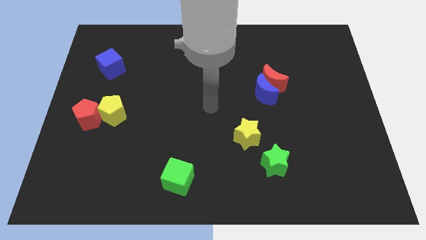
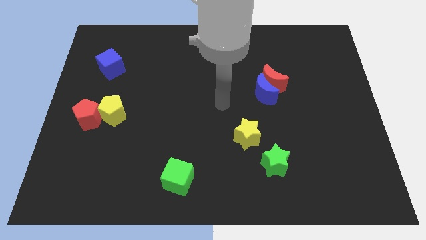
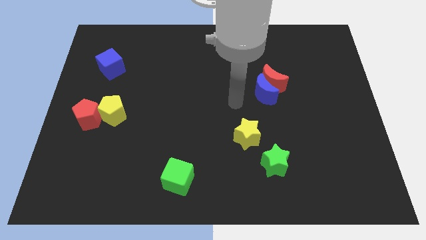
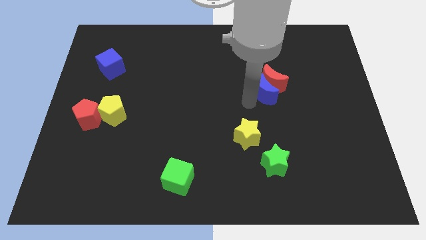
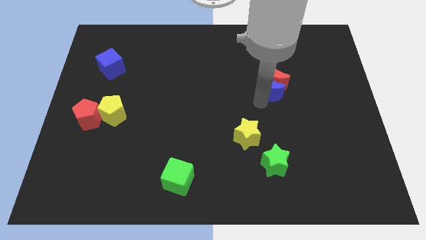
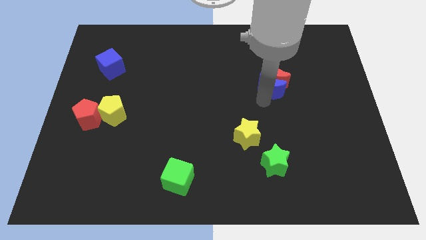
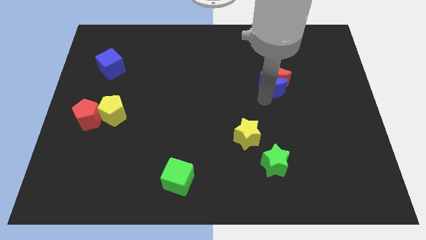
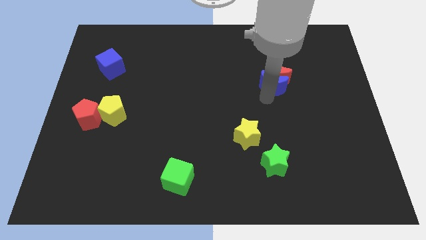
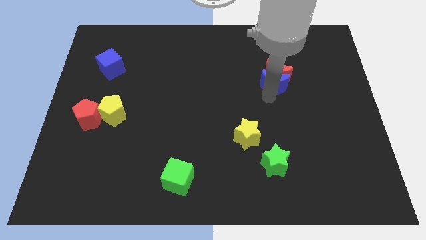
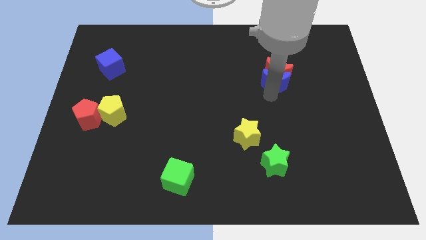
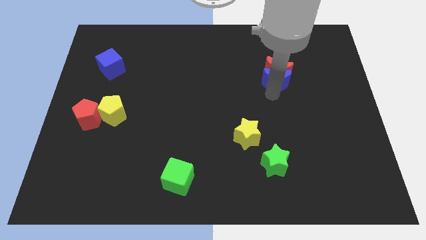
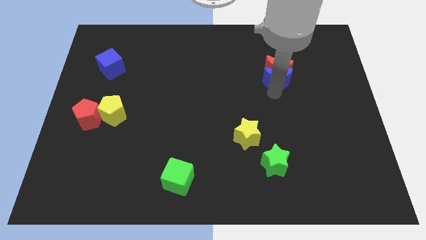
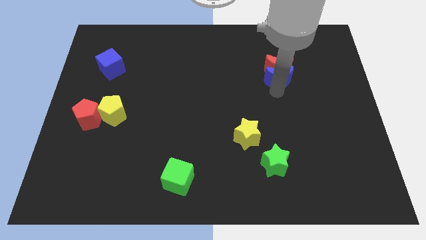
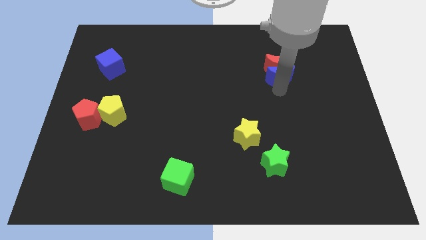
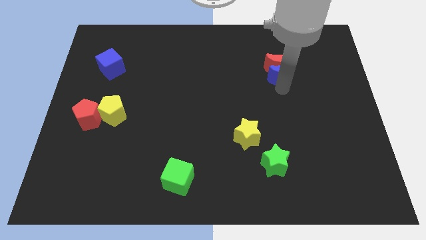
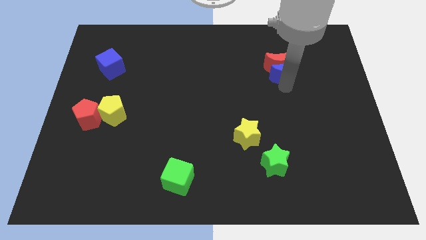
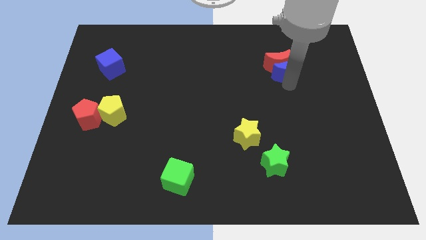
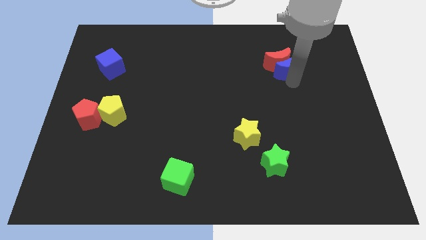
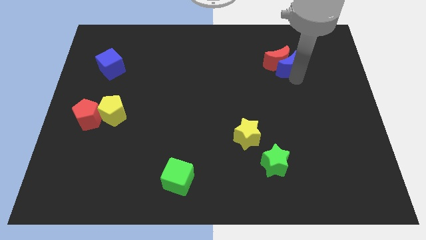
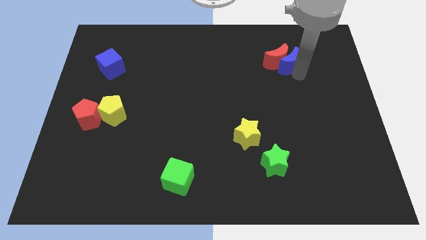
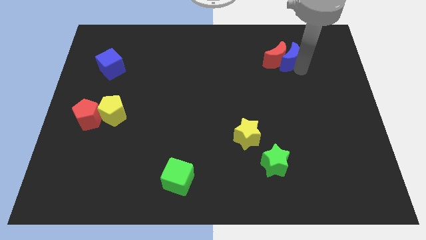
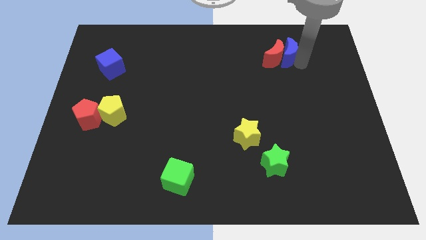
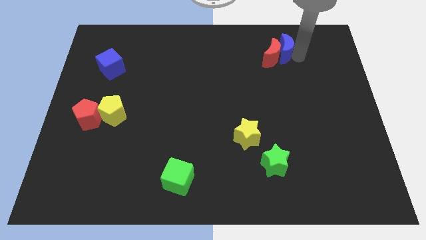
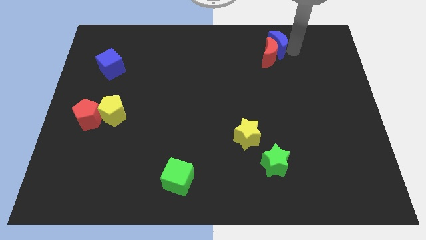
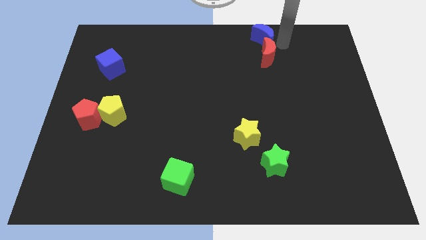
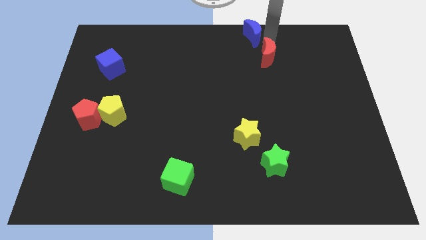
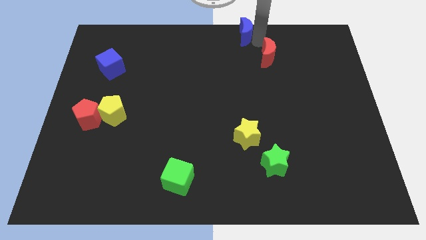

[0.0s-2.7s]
pull the red moon apart from the blue moon

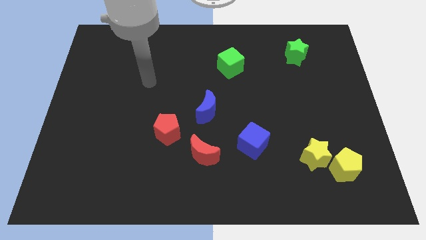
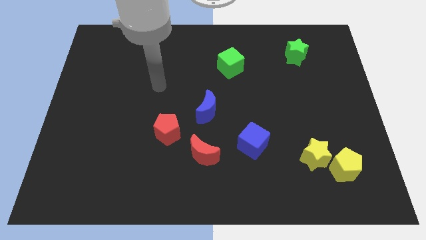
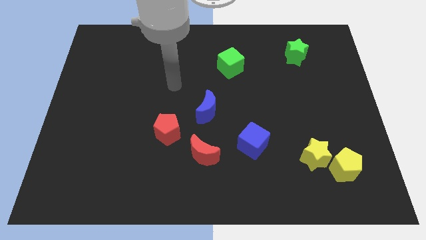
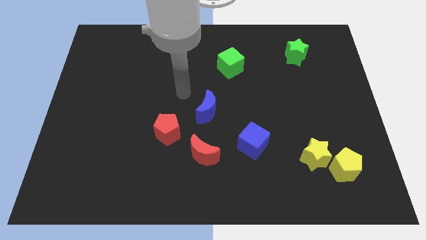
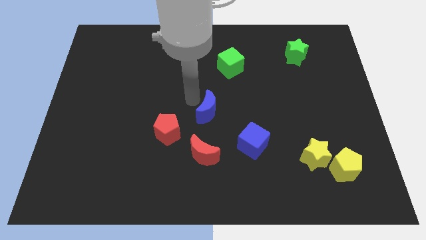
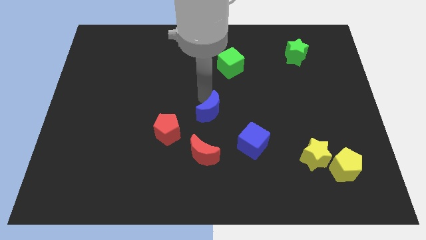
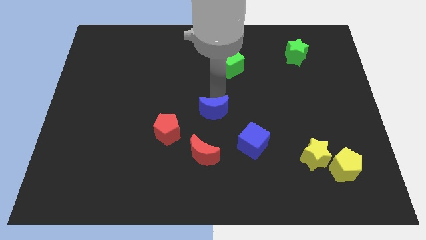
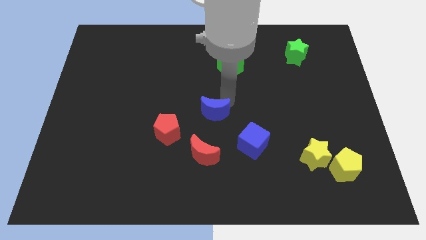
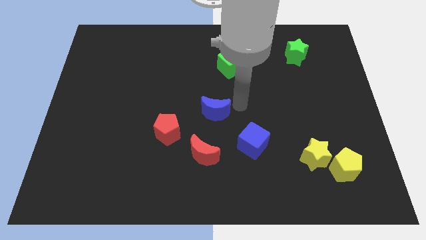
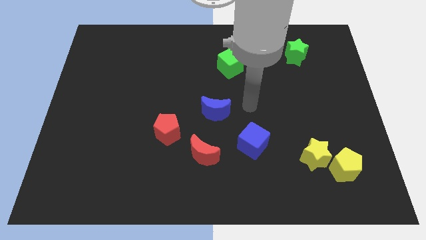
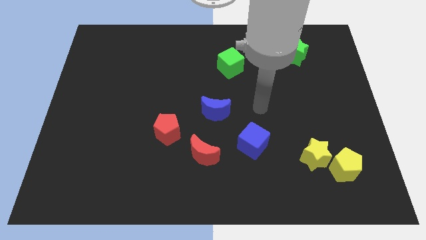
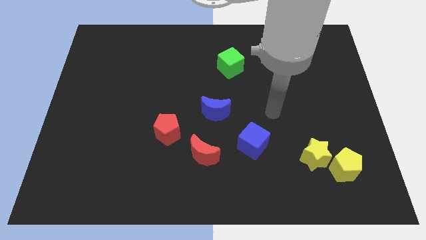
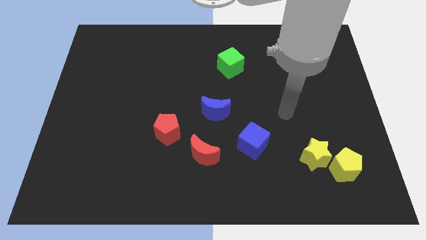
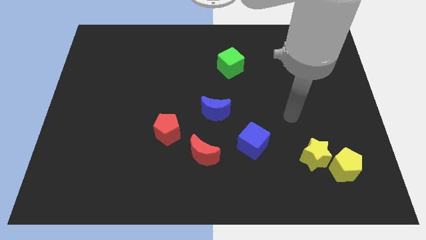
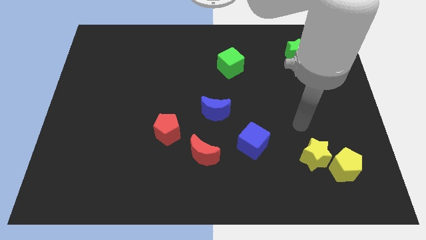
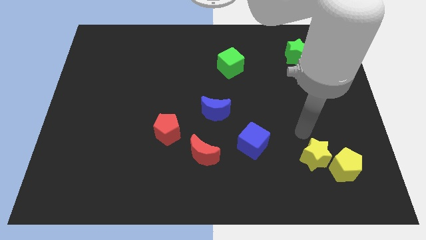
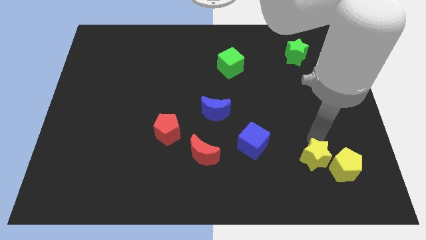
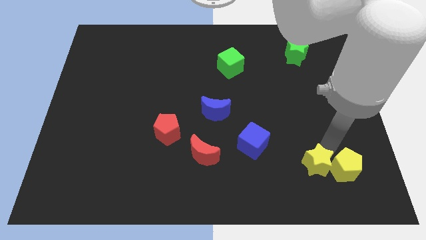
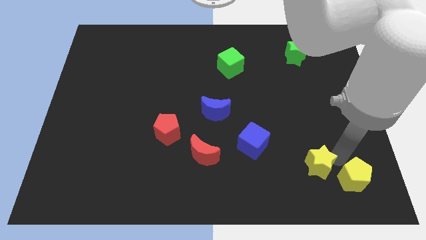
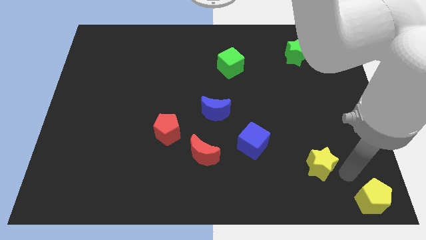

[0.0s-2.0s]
pull the yellow star apart from the yellow pentagon

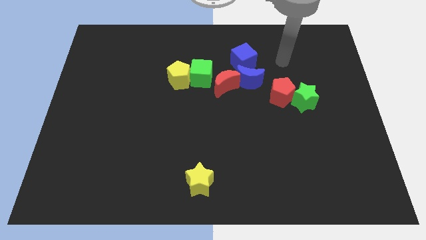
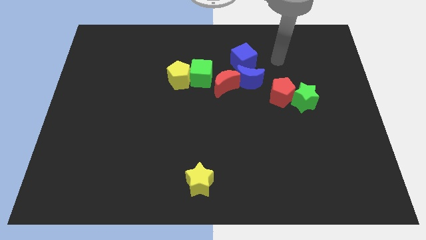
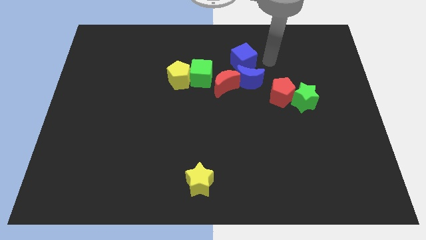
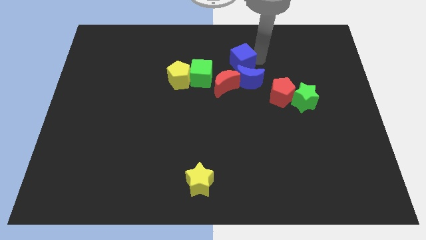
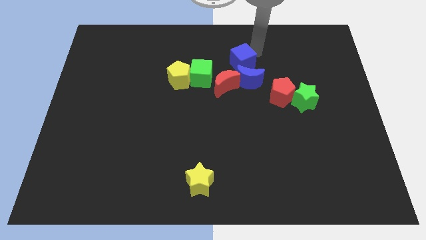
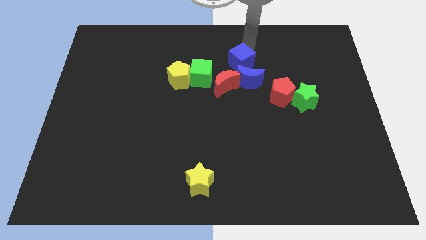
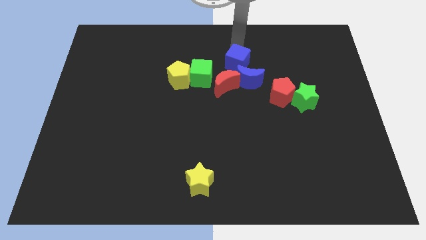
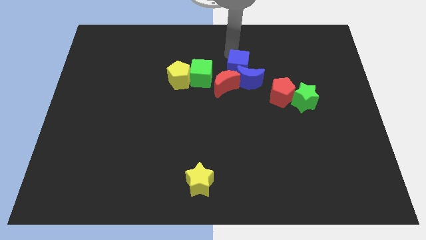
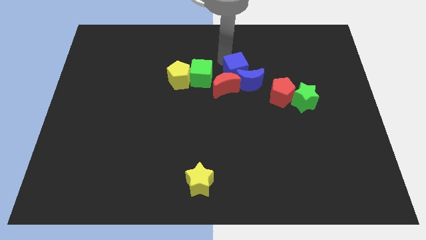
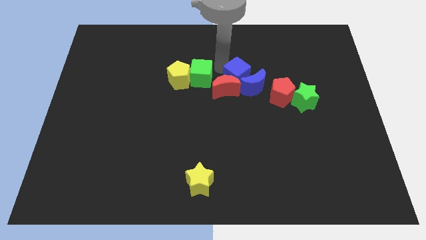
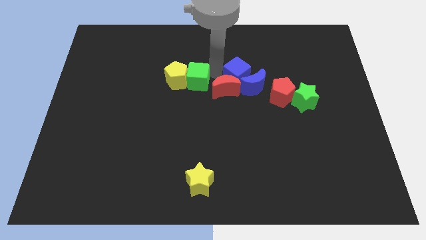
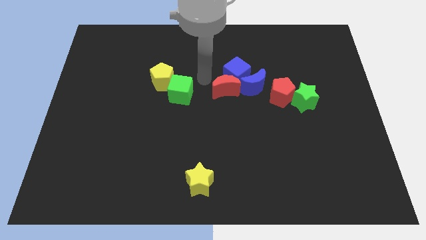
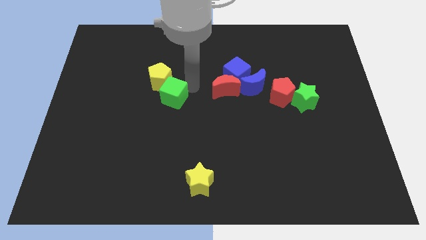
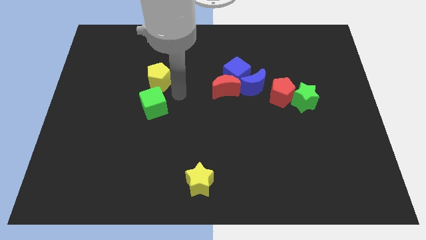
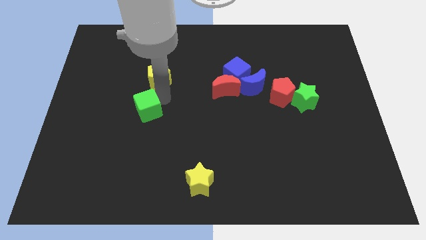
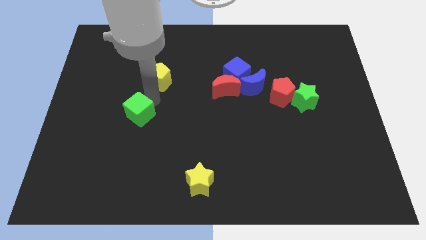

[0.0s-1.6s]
move the yellow pentagon away from the green cube

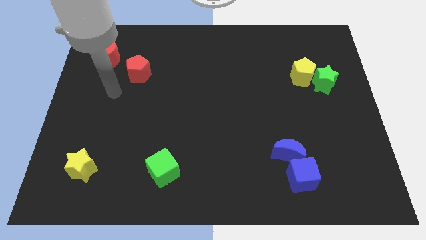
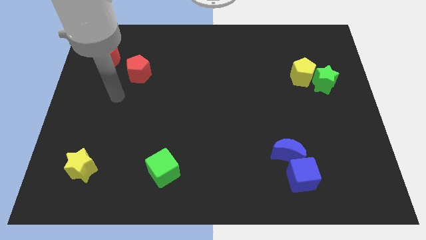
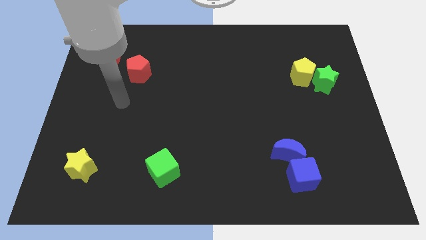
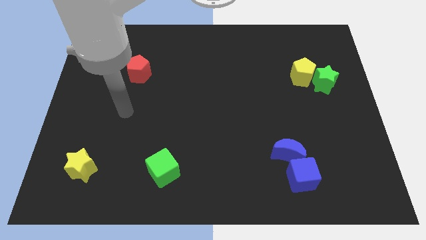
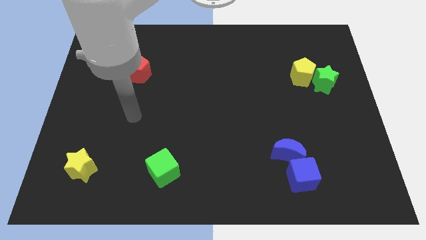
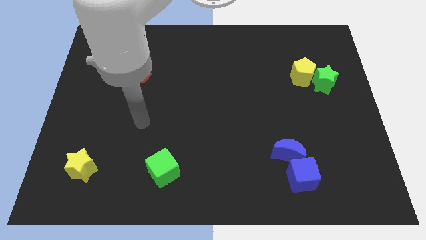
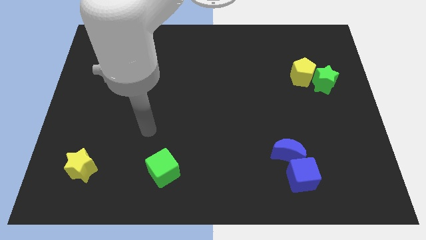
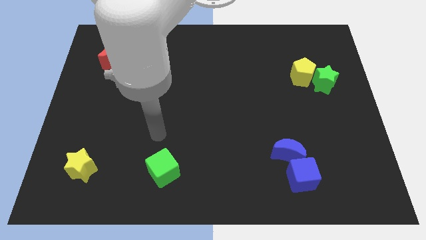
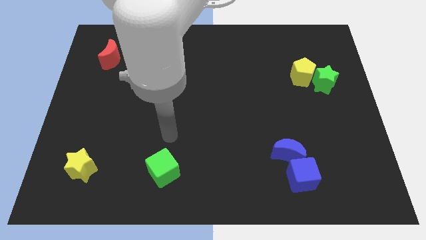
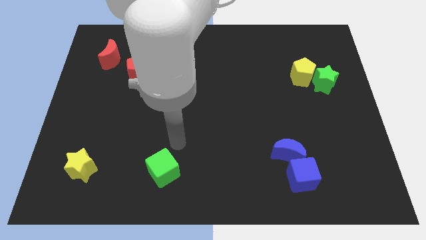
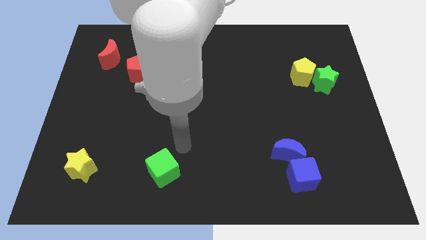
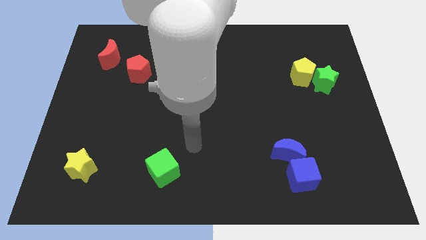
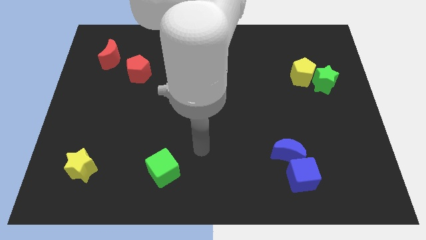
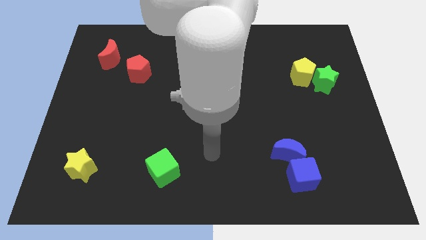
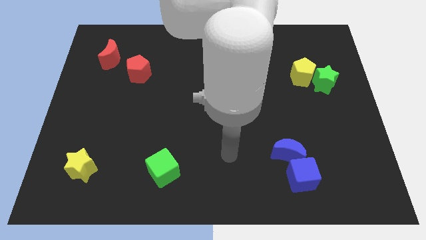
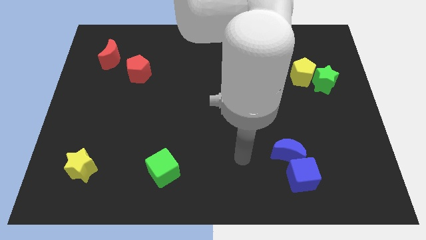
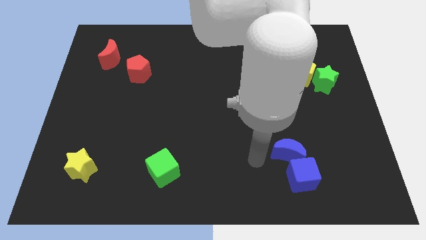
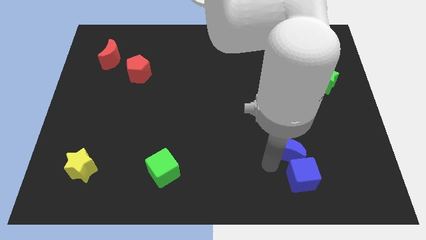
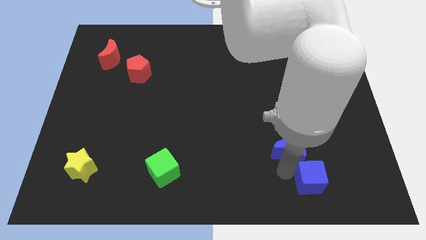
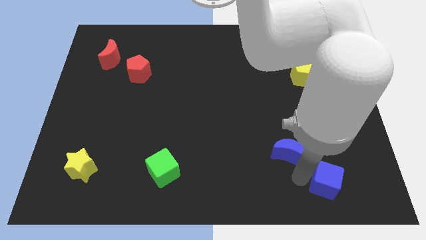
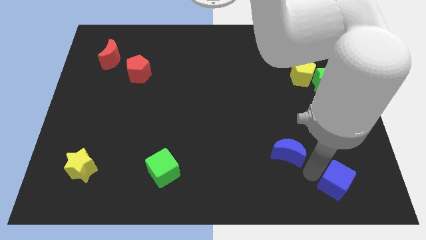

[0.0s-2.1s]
move the blue moon away from the blue cube

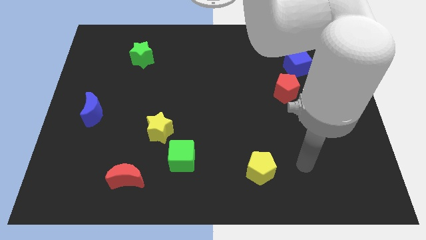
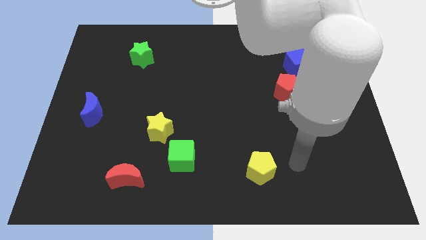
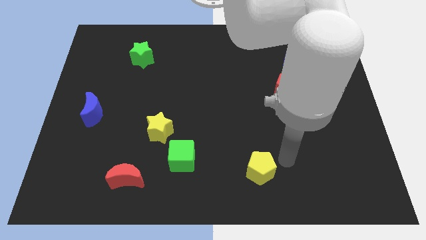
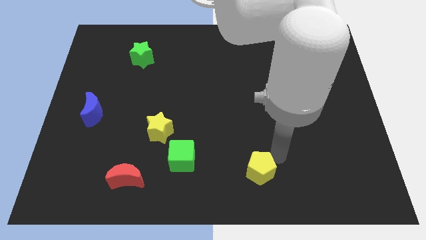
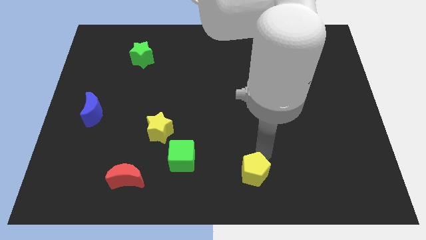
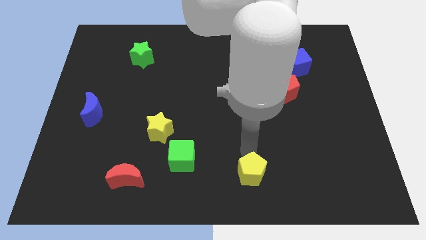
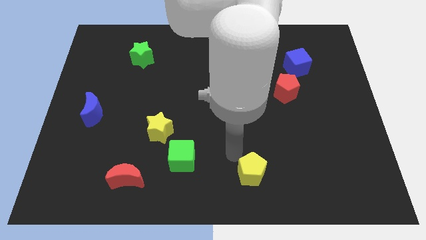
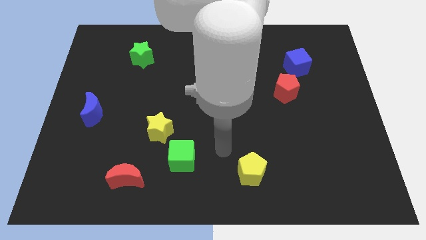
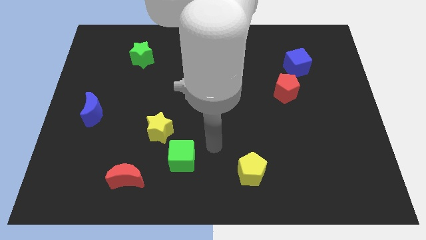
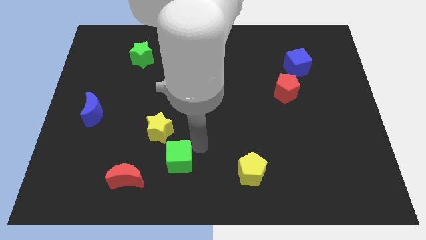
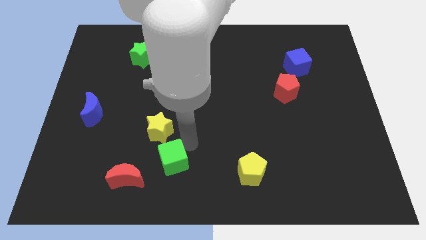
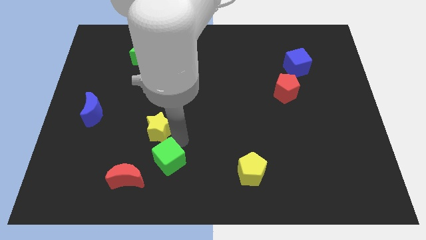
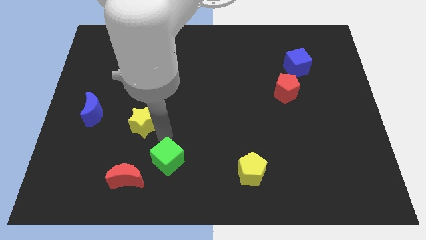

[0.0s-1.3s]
separate the green cube from the yellow star
